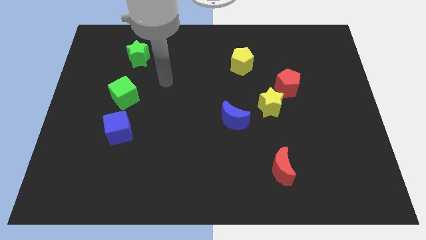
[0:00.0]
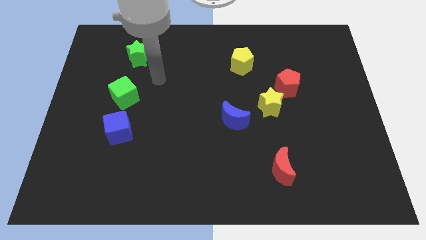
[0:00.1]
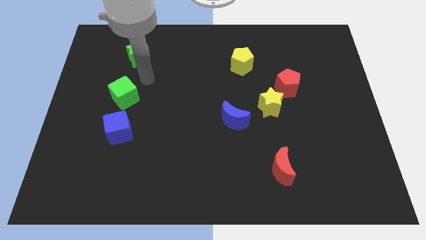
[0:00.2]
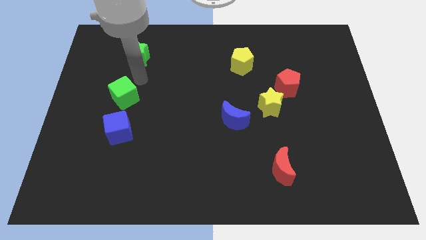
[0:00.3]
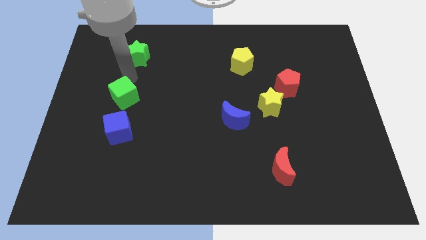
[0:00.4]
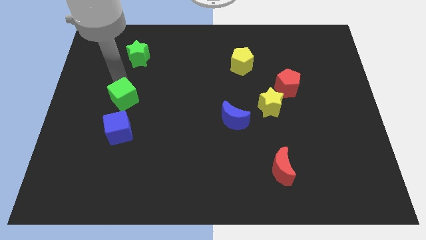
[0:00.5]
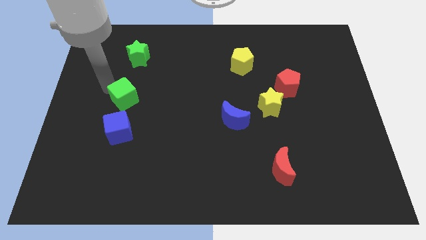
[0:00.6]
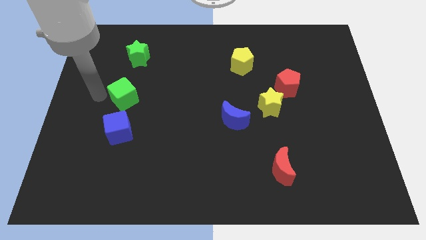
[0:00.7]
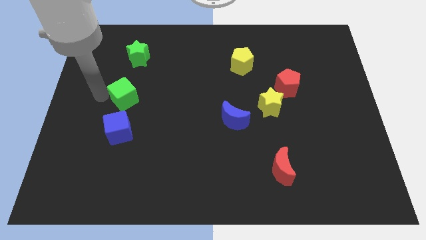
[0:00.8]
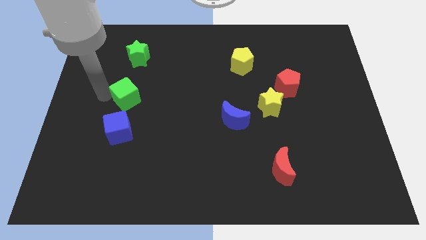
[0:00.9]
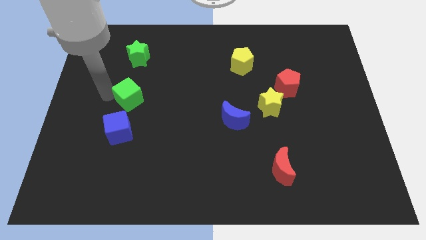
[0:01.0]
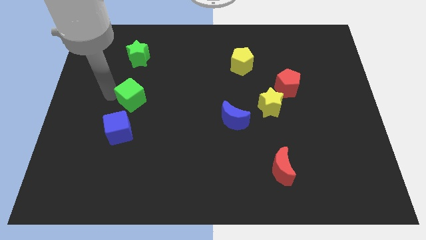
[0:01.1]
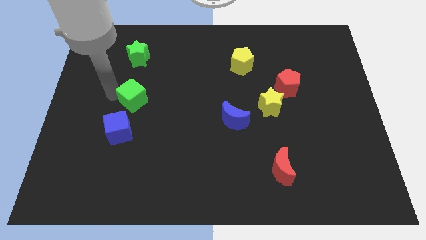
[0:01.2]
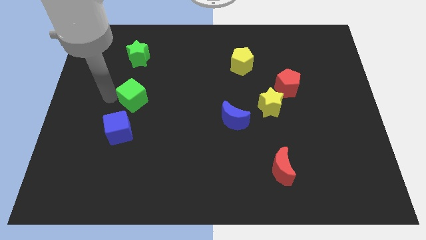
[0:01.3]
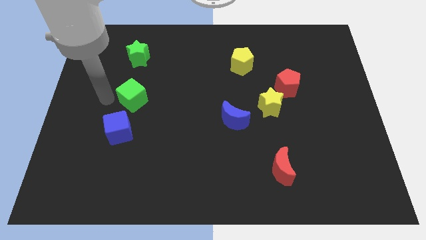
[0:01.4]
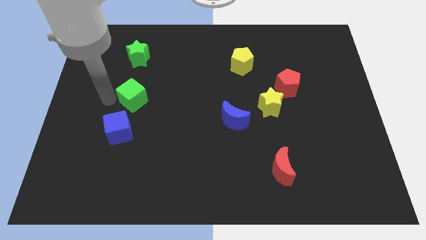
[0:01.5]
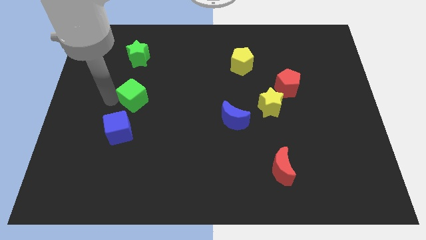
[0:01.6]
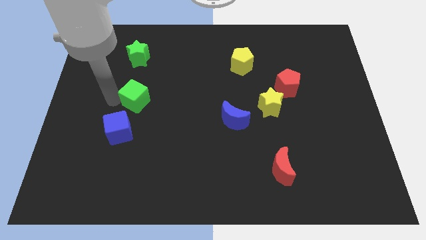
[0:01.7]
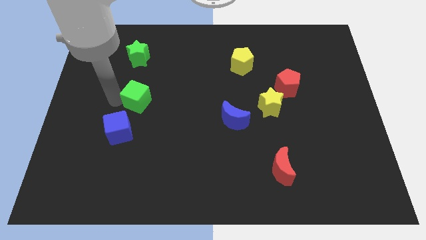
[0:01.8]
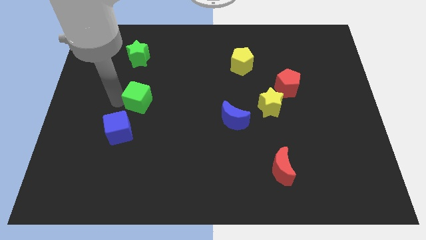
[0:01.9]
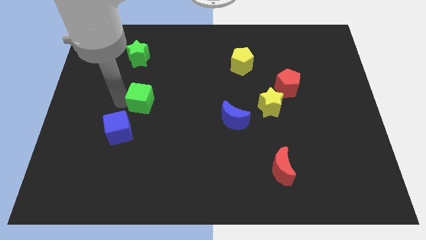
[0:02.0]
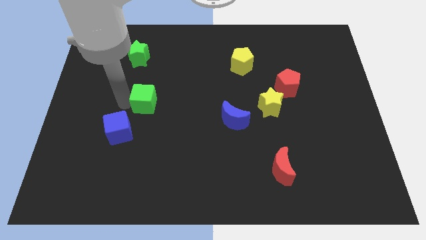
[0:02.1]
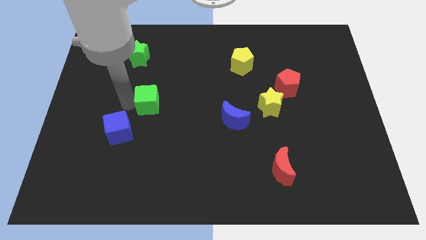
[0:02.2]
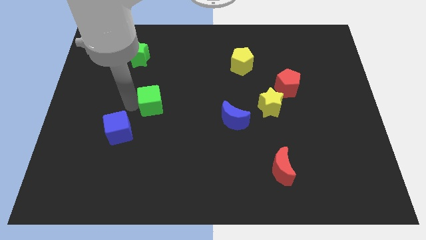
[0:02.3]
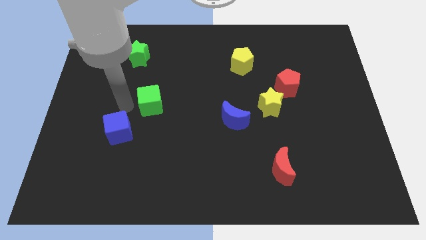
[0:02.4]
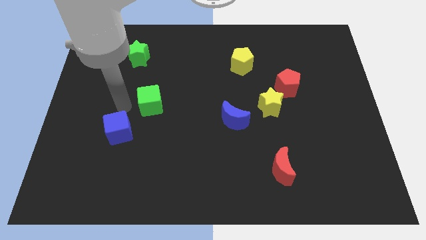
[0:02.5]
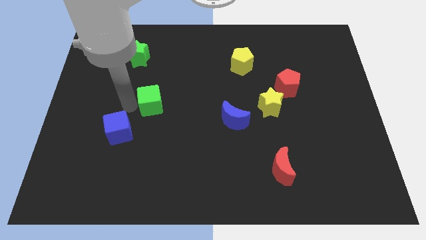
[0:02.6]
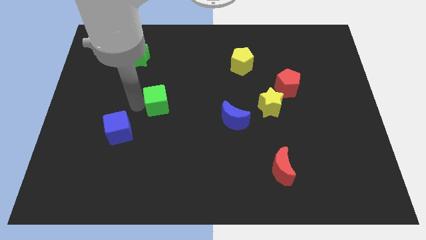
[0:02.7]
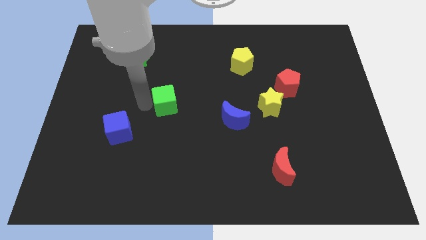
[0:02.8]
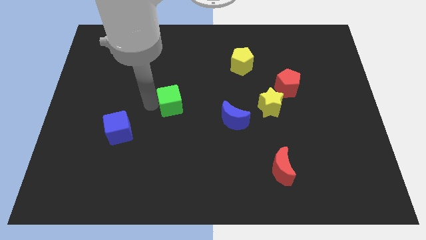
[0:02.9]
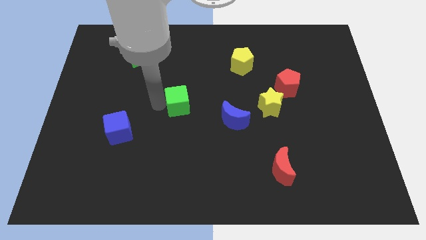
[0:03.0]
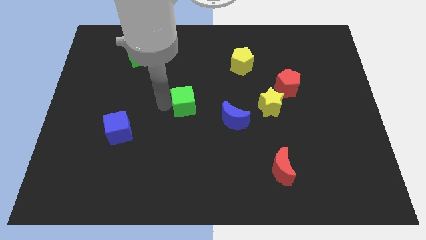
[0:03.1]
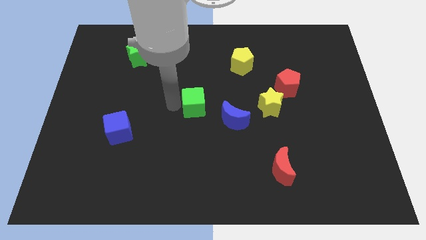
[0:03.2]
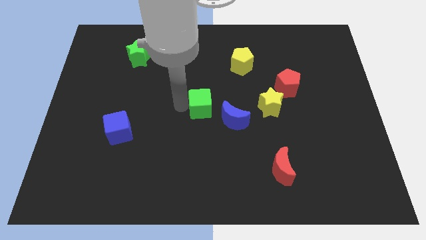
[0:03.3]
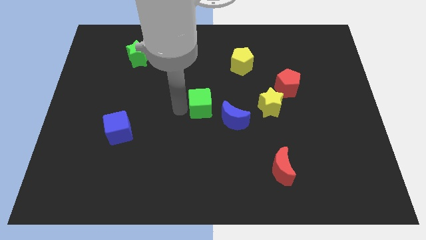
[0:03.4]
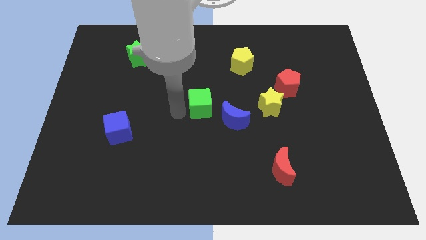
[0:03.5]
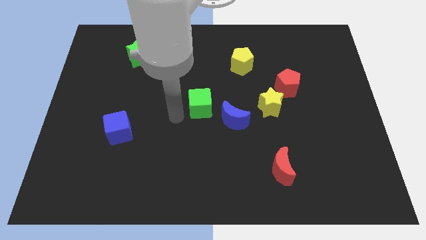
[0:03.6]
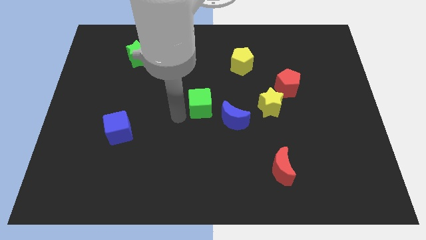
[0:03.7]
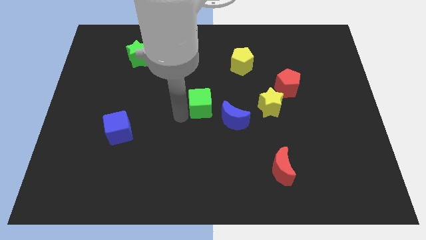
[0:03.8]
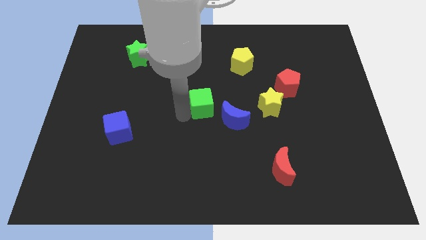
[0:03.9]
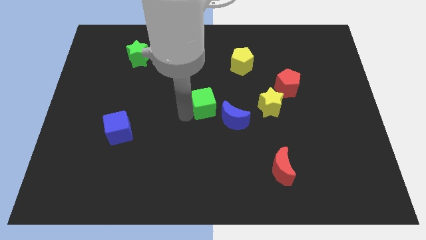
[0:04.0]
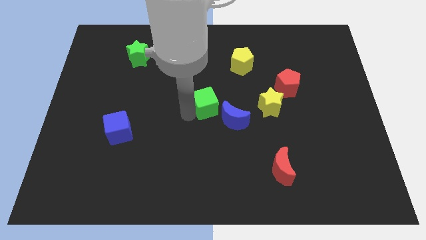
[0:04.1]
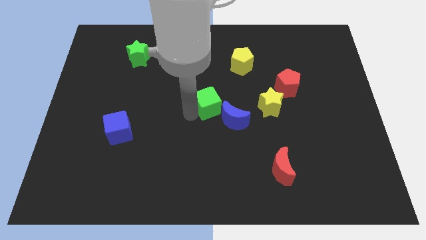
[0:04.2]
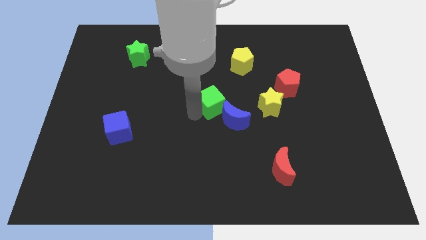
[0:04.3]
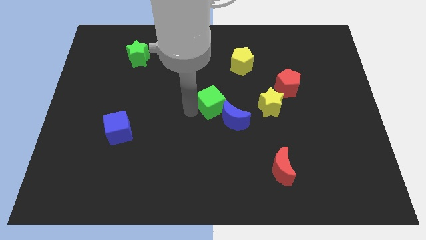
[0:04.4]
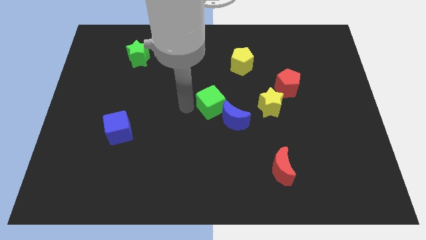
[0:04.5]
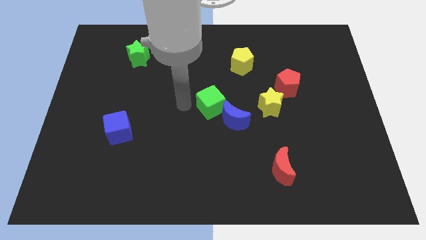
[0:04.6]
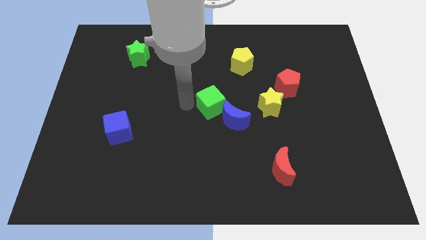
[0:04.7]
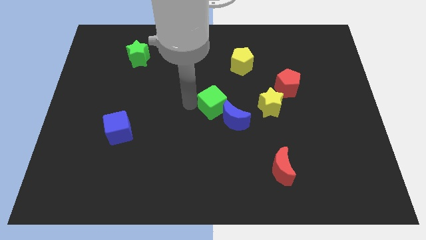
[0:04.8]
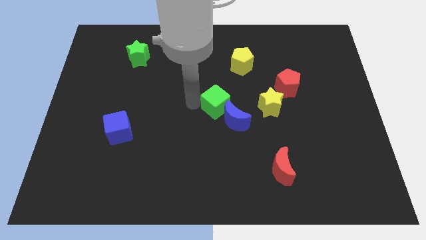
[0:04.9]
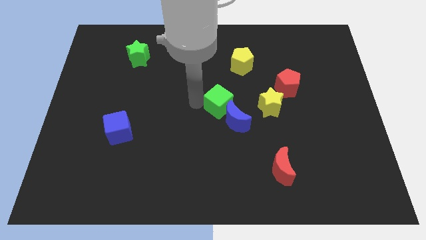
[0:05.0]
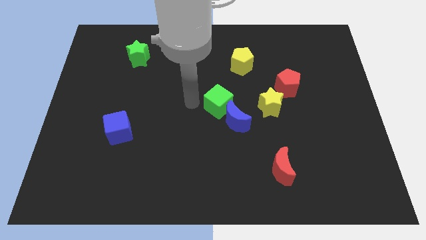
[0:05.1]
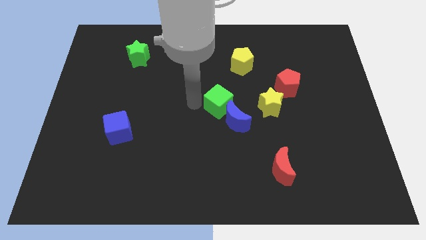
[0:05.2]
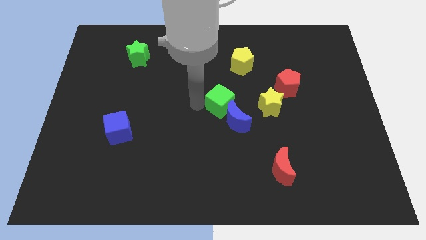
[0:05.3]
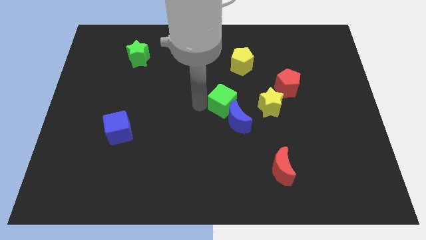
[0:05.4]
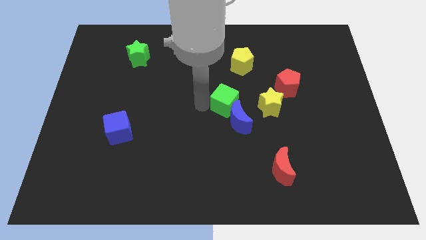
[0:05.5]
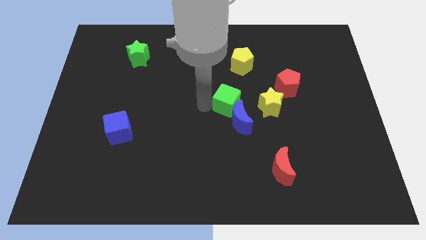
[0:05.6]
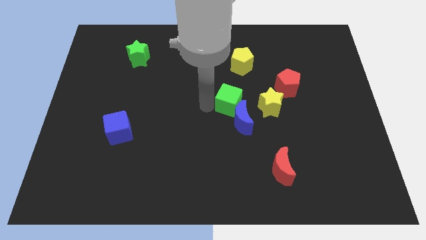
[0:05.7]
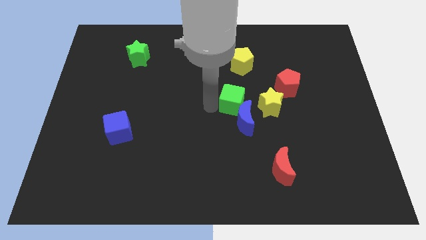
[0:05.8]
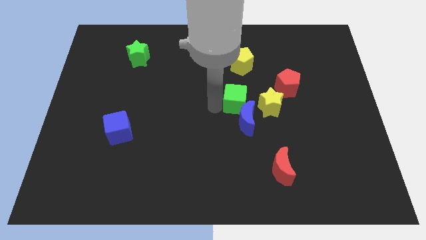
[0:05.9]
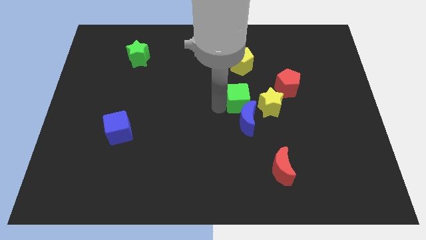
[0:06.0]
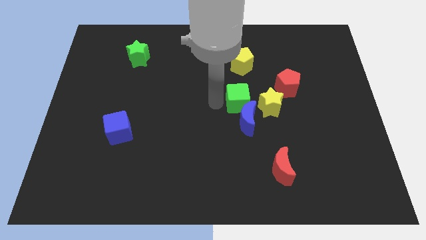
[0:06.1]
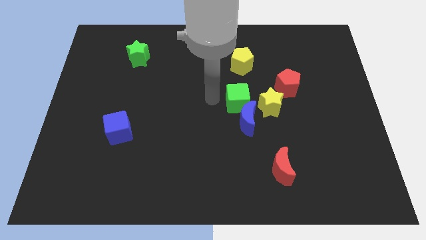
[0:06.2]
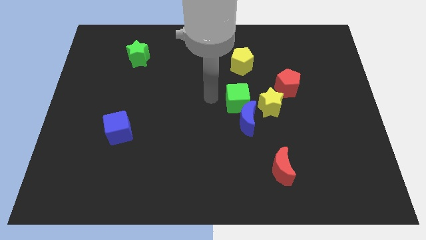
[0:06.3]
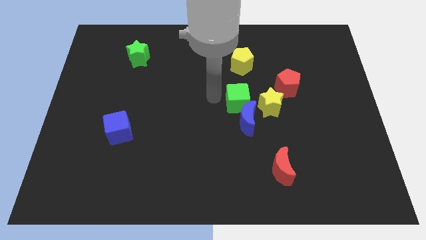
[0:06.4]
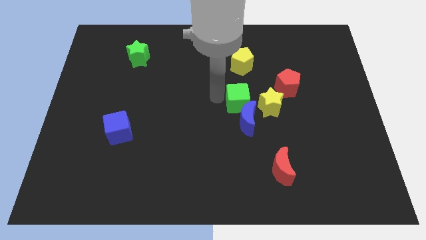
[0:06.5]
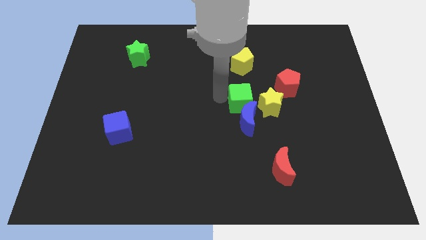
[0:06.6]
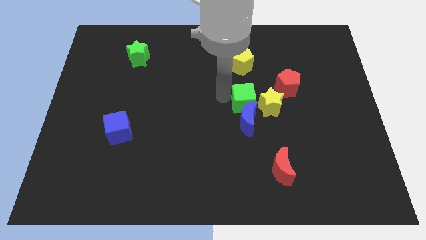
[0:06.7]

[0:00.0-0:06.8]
move the green cube to the yellow star
